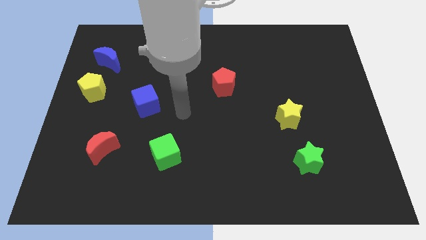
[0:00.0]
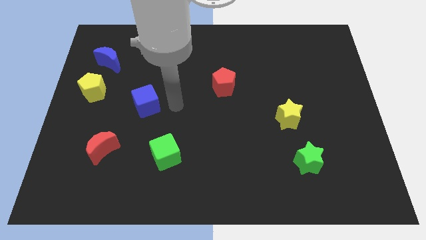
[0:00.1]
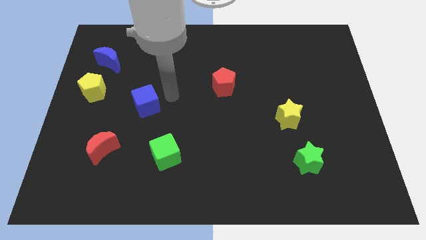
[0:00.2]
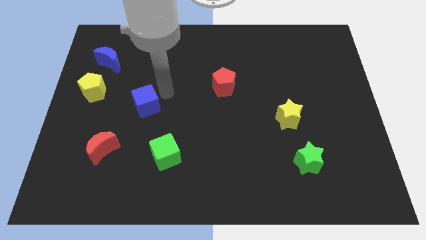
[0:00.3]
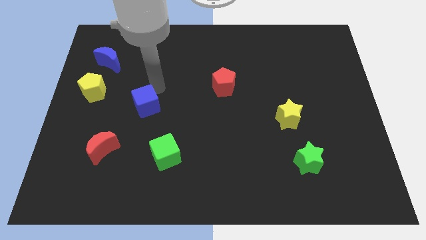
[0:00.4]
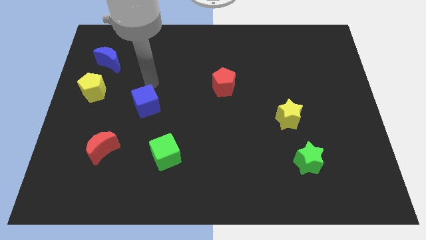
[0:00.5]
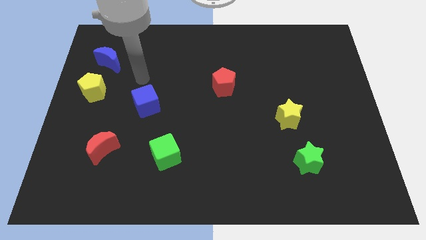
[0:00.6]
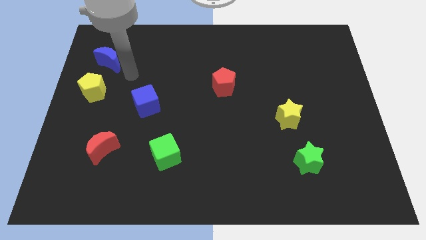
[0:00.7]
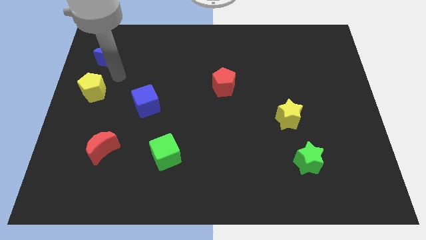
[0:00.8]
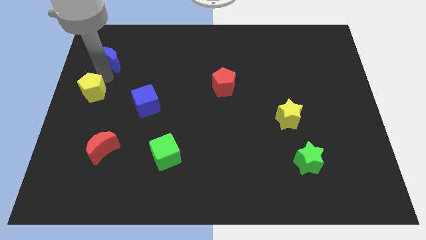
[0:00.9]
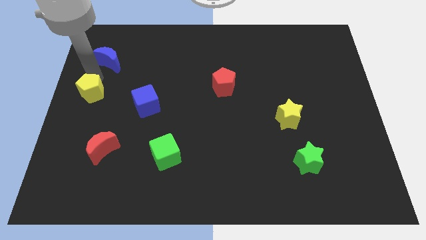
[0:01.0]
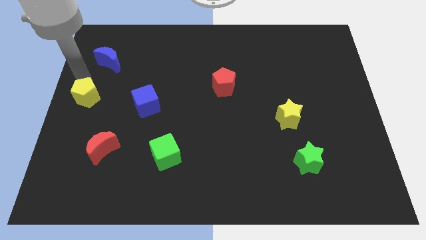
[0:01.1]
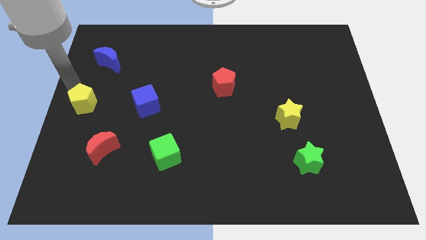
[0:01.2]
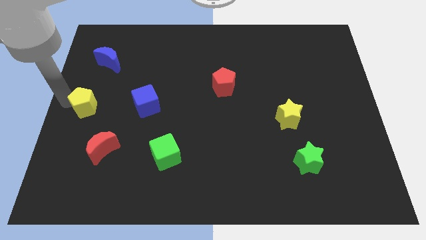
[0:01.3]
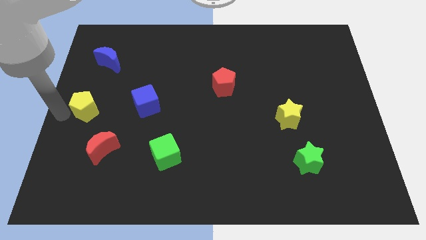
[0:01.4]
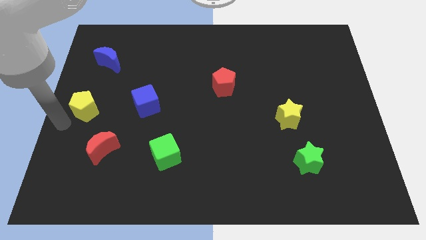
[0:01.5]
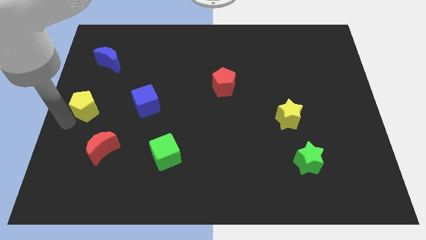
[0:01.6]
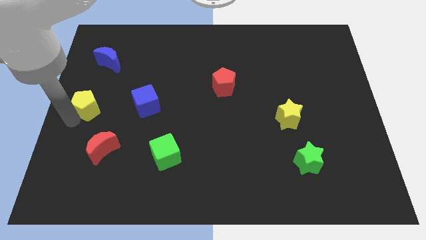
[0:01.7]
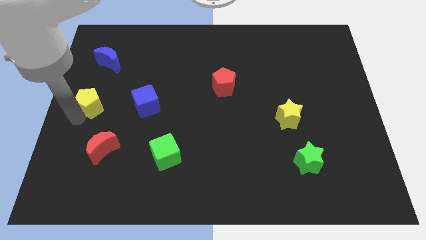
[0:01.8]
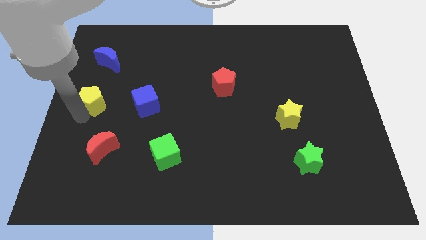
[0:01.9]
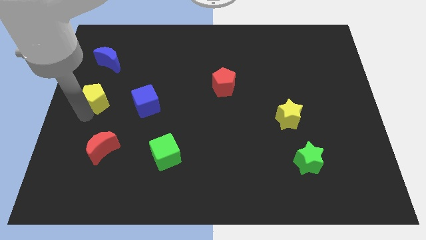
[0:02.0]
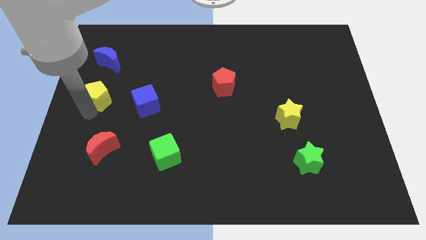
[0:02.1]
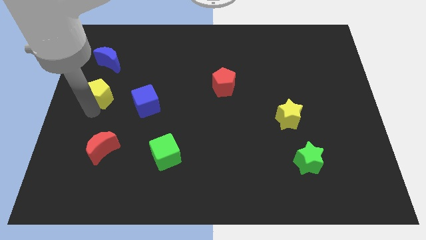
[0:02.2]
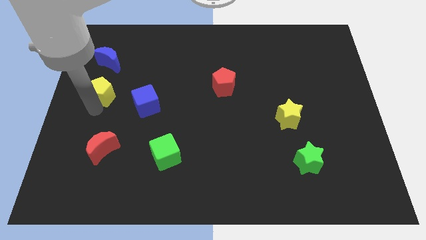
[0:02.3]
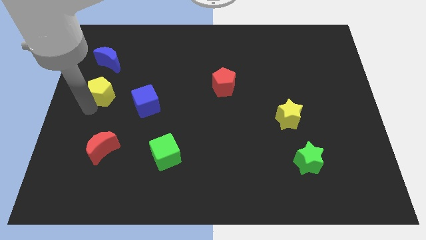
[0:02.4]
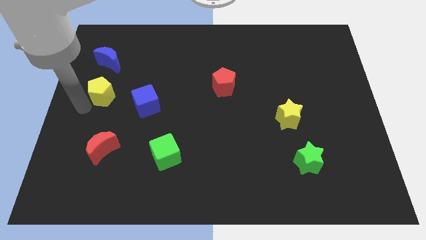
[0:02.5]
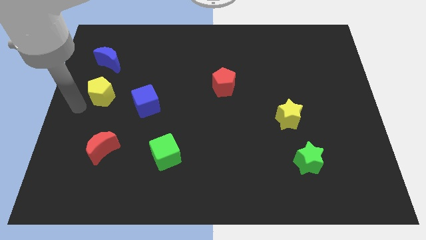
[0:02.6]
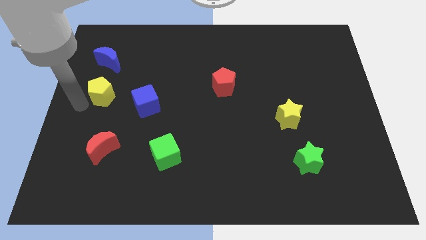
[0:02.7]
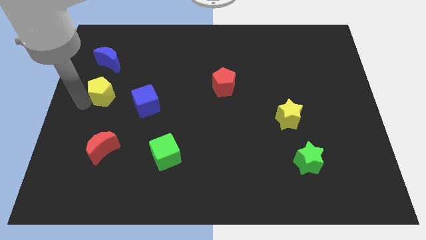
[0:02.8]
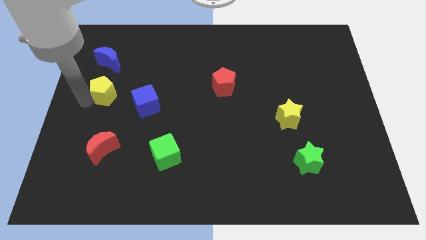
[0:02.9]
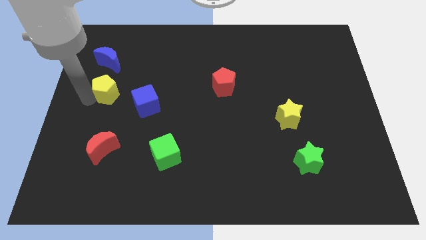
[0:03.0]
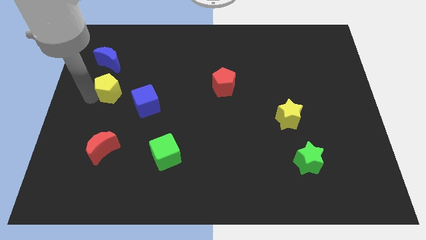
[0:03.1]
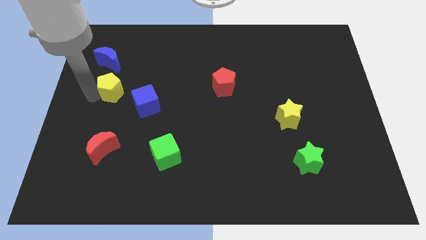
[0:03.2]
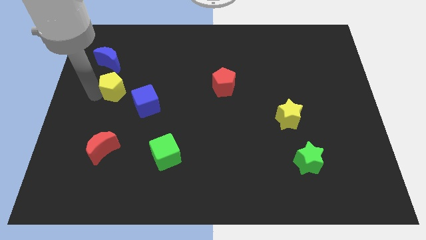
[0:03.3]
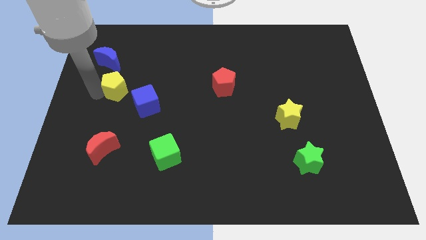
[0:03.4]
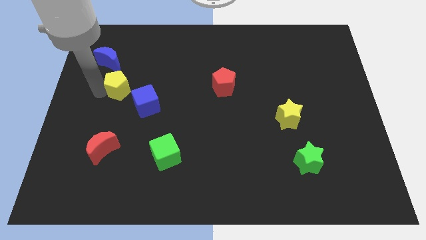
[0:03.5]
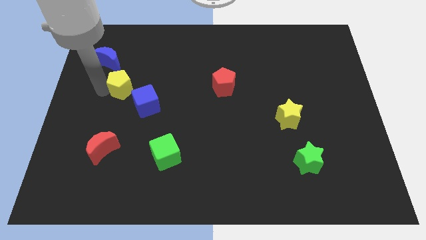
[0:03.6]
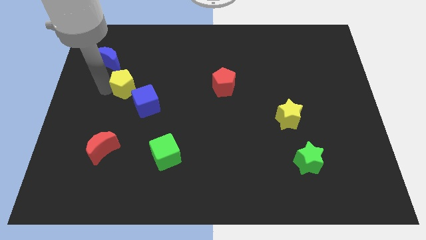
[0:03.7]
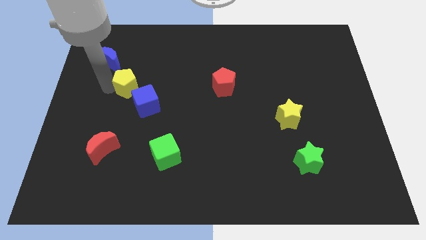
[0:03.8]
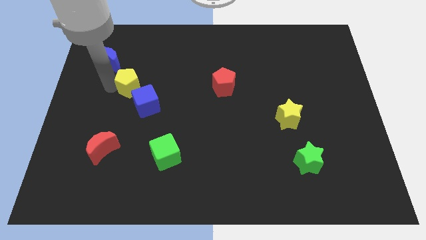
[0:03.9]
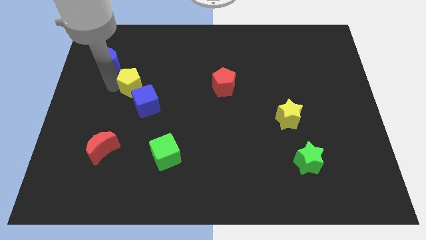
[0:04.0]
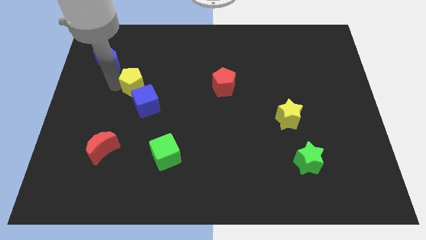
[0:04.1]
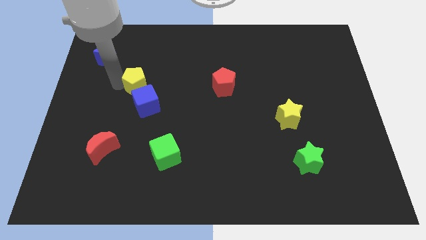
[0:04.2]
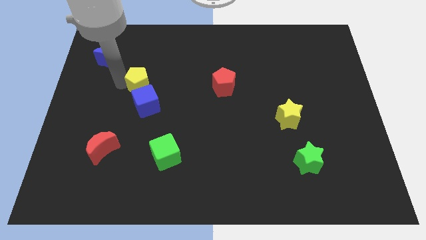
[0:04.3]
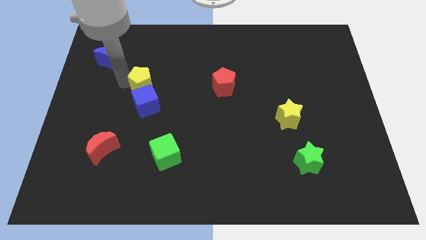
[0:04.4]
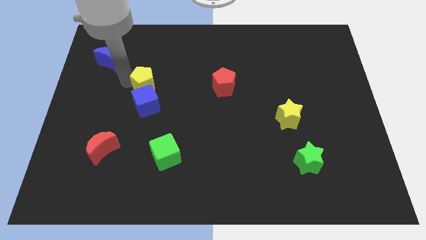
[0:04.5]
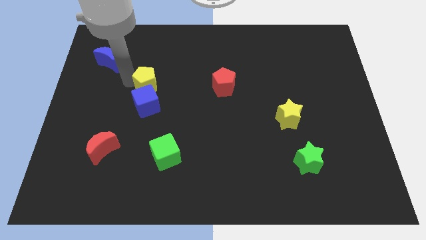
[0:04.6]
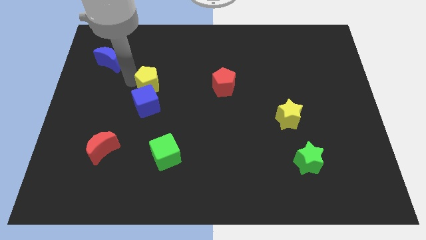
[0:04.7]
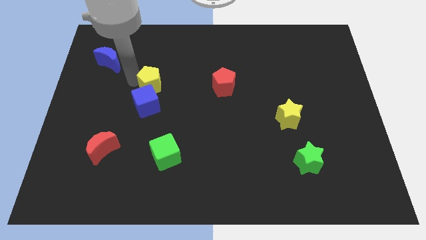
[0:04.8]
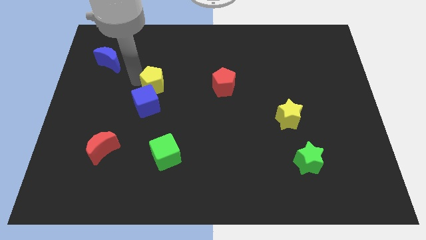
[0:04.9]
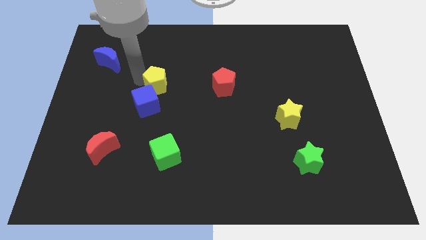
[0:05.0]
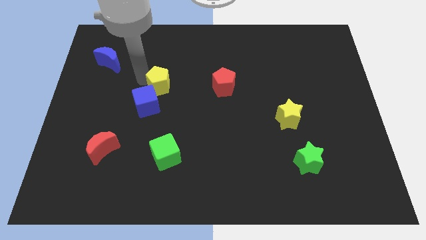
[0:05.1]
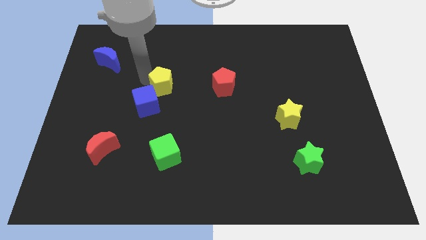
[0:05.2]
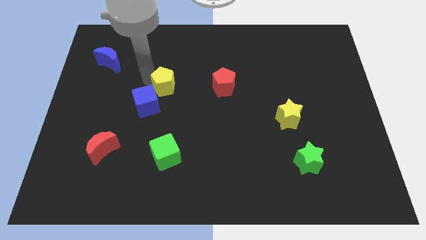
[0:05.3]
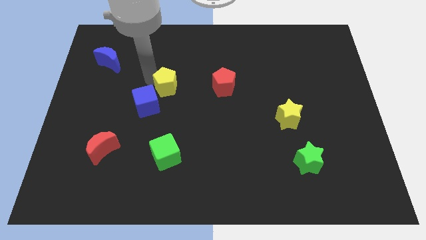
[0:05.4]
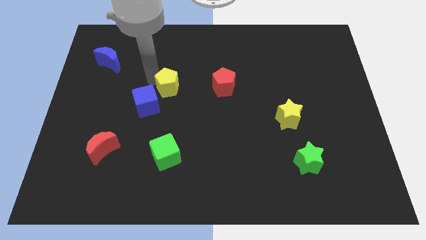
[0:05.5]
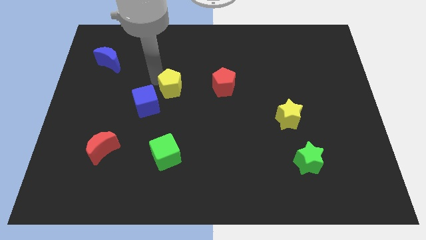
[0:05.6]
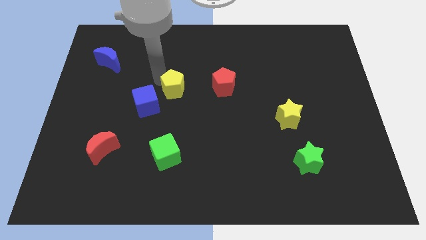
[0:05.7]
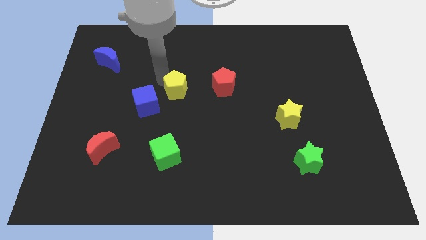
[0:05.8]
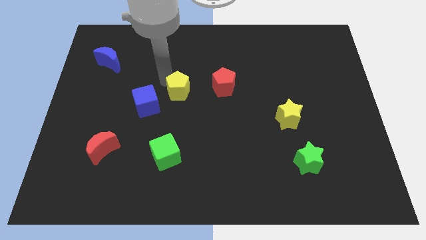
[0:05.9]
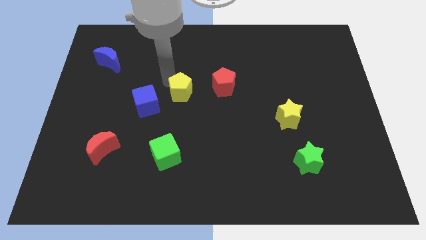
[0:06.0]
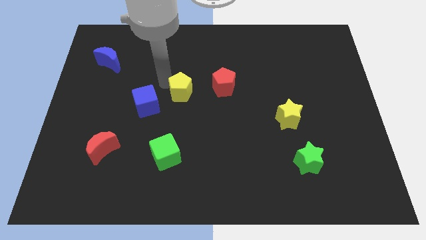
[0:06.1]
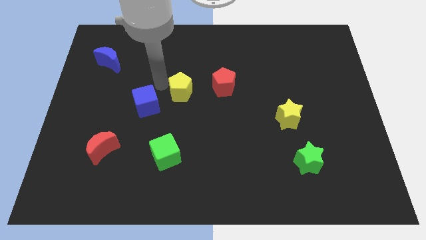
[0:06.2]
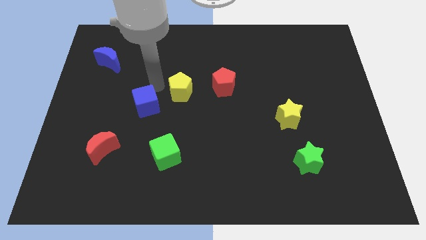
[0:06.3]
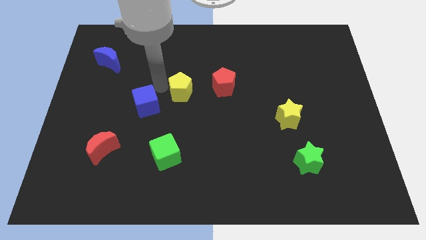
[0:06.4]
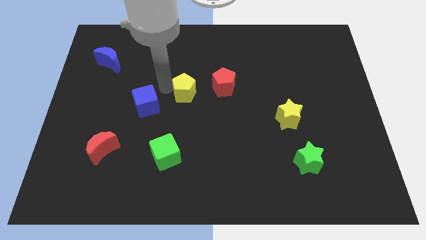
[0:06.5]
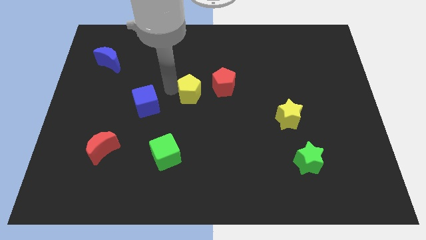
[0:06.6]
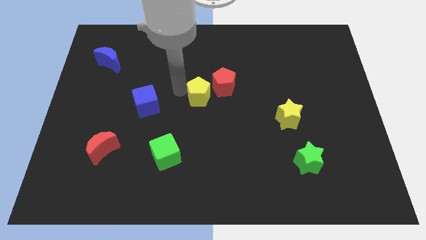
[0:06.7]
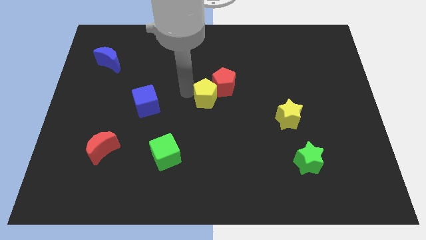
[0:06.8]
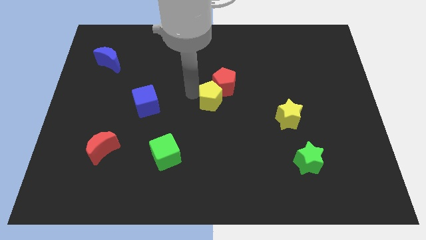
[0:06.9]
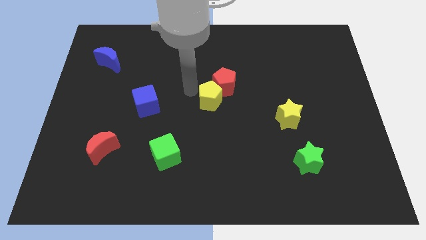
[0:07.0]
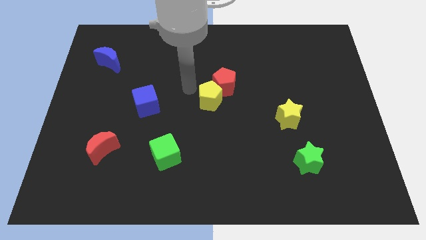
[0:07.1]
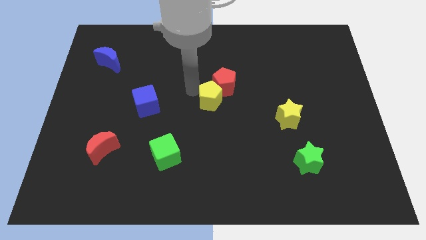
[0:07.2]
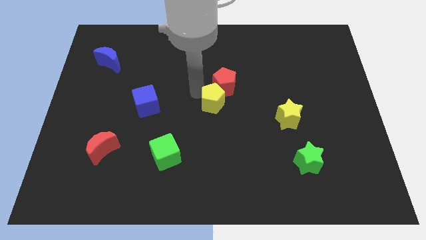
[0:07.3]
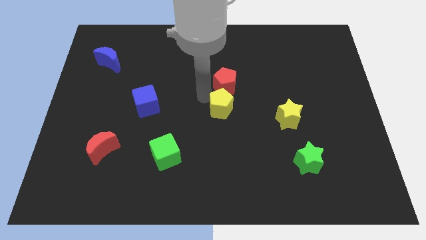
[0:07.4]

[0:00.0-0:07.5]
push the yellow pentagon left of the yellow star

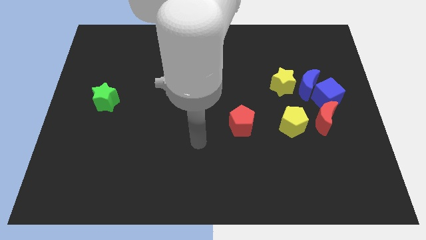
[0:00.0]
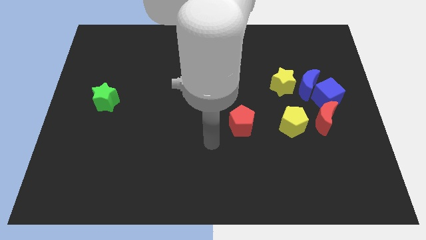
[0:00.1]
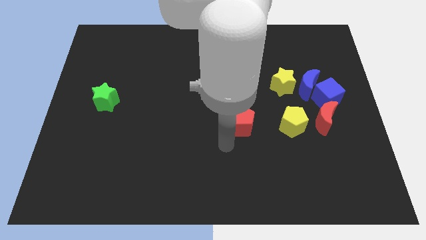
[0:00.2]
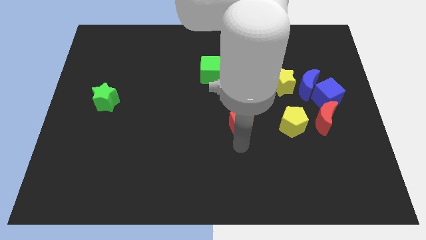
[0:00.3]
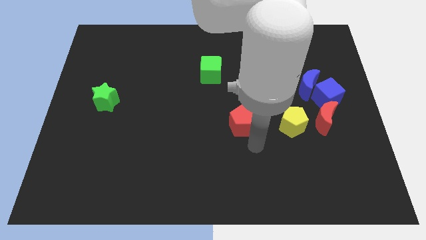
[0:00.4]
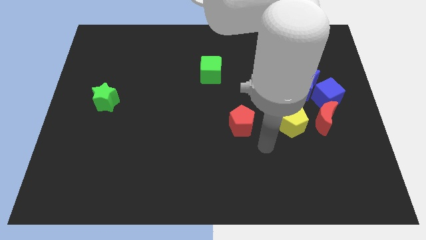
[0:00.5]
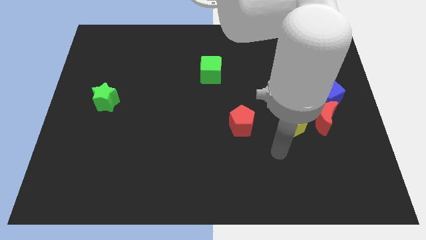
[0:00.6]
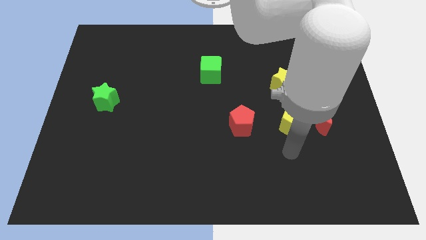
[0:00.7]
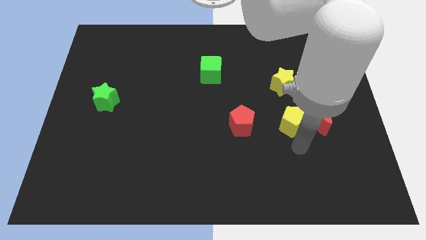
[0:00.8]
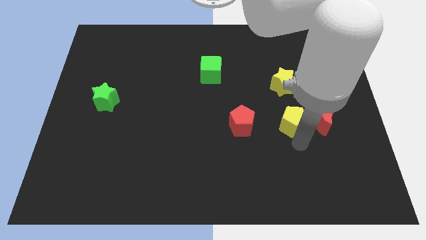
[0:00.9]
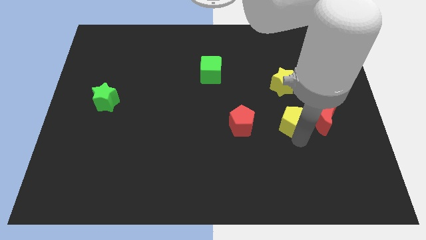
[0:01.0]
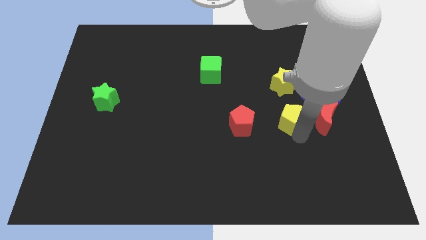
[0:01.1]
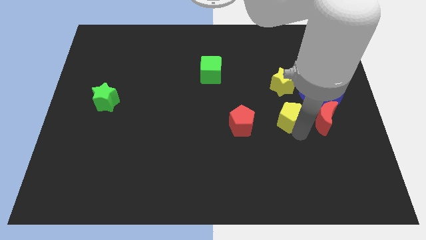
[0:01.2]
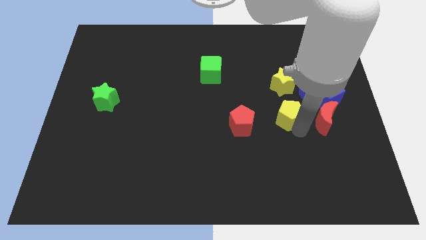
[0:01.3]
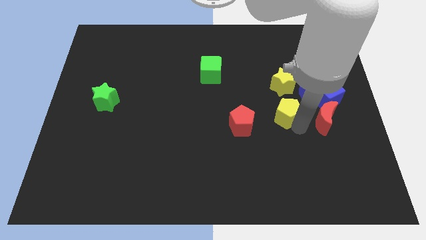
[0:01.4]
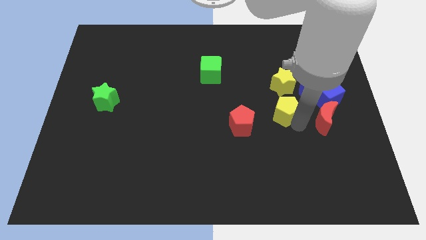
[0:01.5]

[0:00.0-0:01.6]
put the yellow pentagon left of the blue cube
